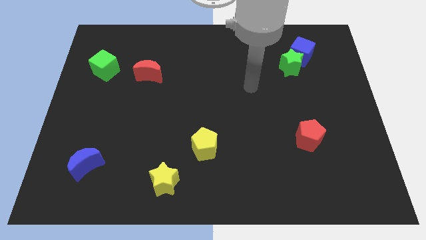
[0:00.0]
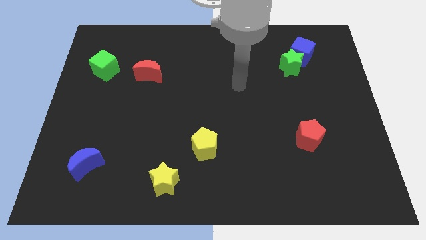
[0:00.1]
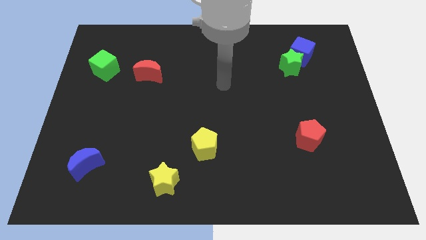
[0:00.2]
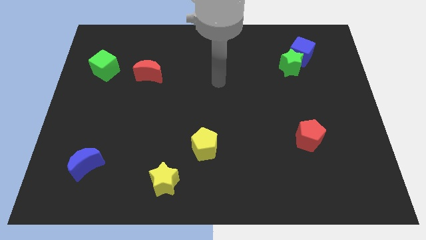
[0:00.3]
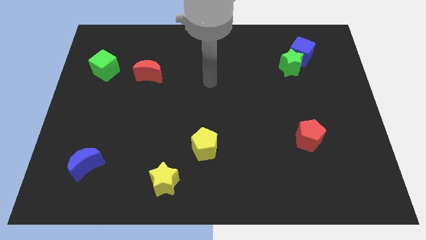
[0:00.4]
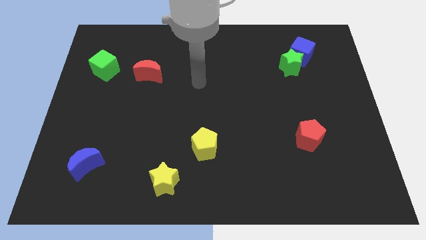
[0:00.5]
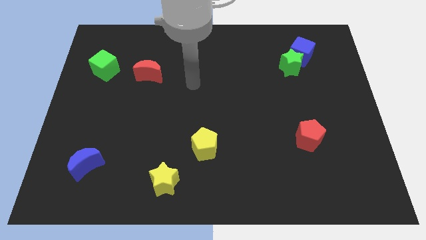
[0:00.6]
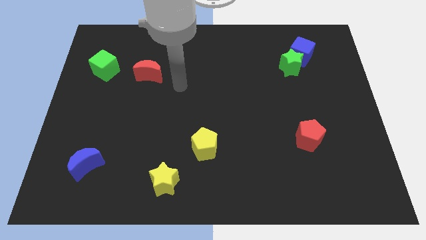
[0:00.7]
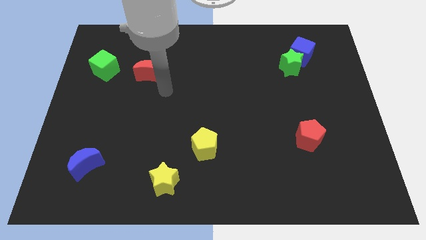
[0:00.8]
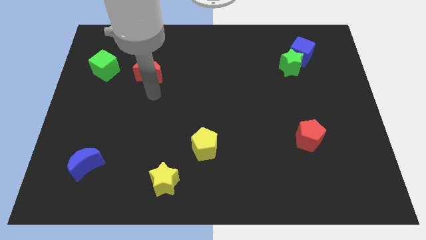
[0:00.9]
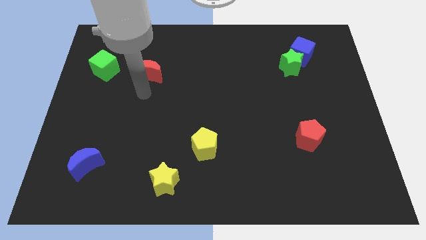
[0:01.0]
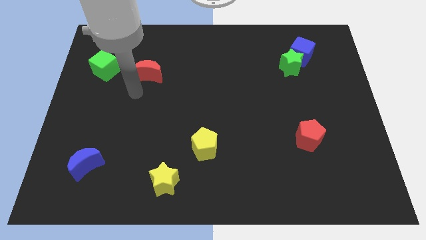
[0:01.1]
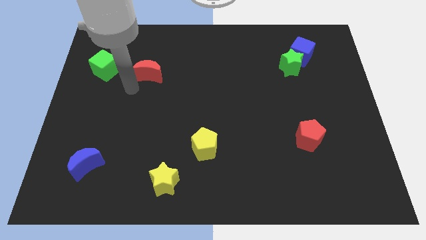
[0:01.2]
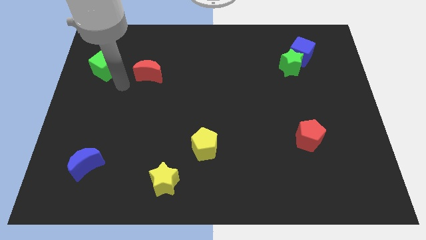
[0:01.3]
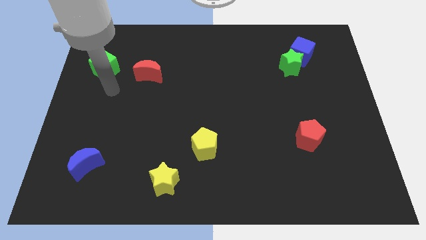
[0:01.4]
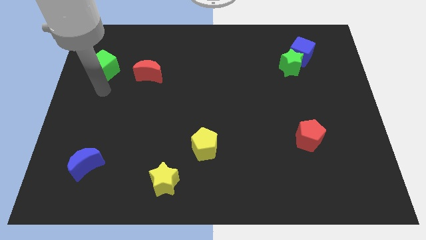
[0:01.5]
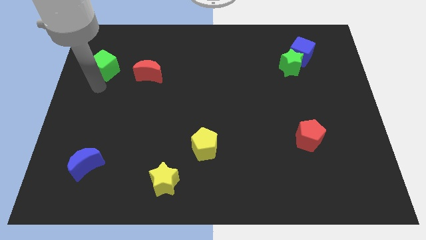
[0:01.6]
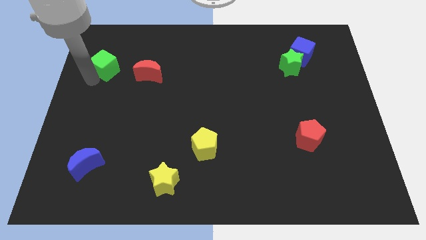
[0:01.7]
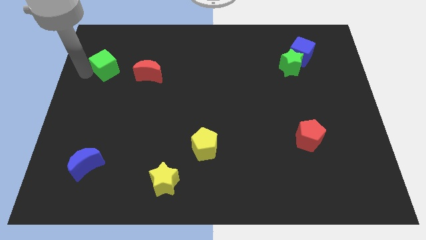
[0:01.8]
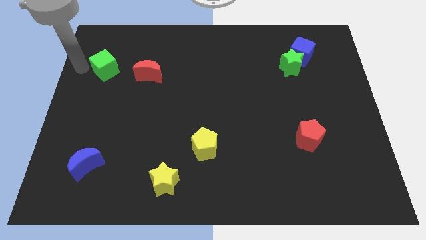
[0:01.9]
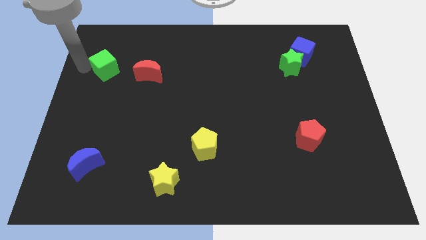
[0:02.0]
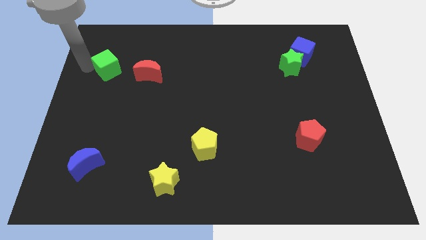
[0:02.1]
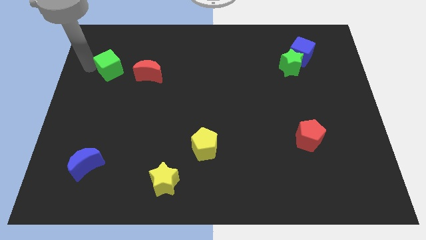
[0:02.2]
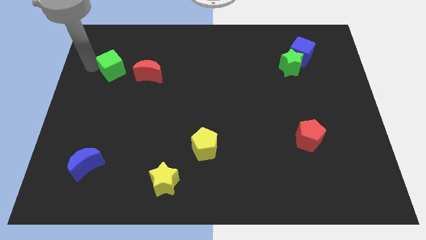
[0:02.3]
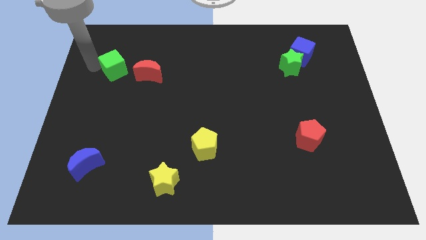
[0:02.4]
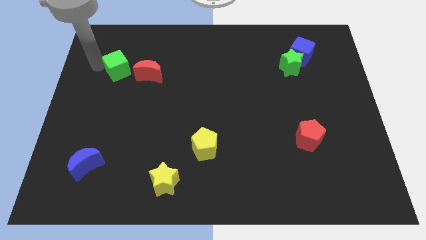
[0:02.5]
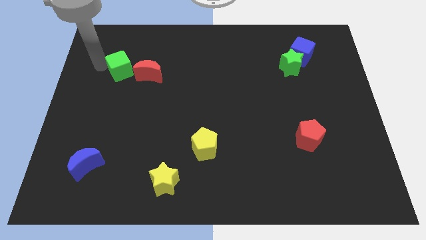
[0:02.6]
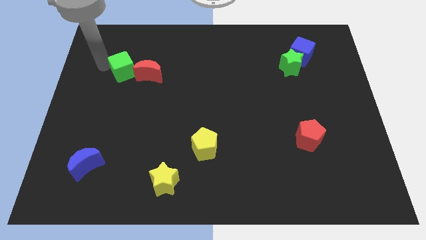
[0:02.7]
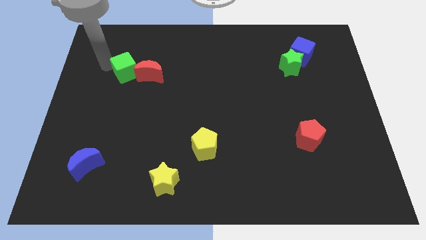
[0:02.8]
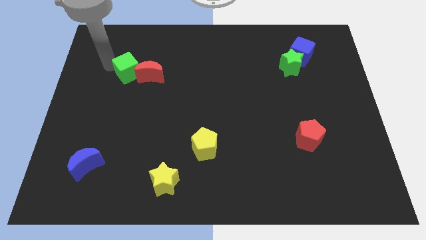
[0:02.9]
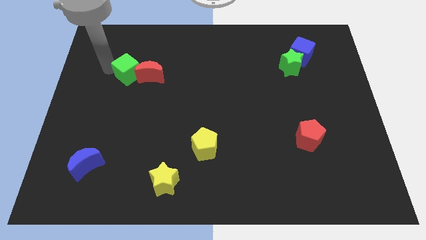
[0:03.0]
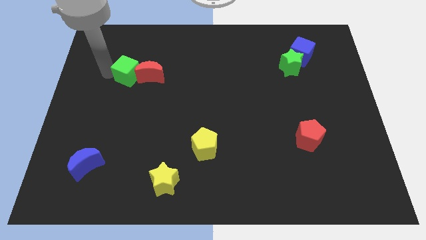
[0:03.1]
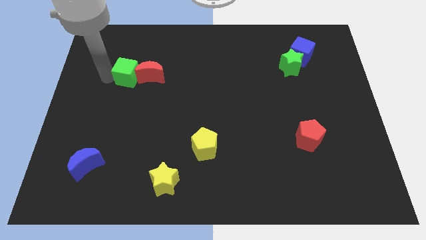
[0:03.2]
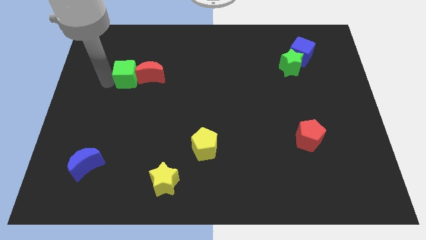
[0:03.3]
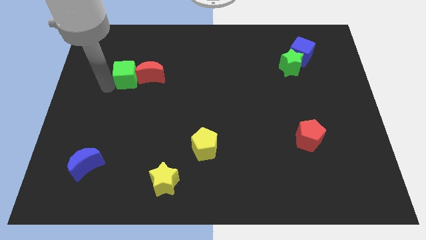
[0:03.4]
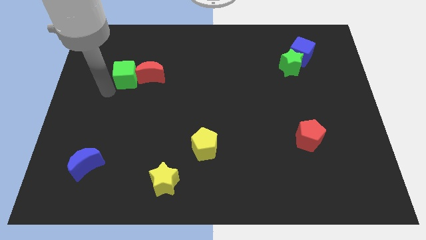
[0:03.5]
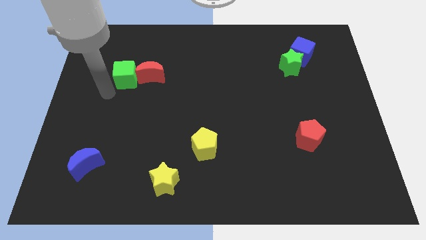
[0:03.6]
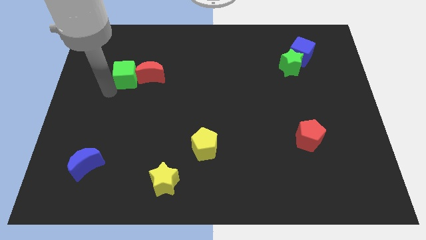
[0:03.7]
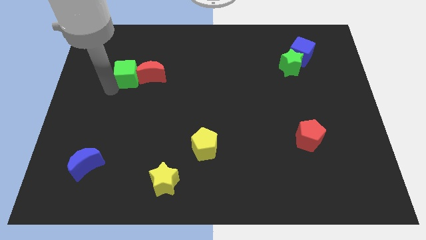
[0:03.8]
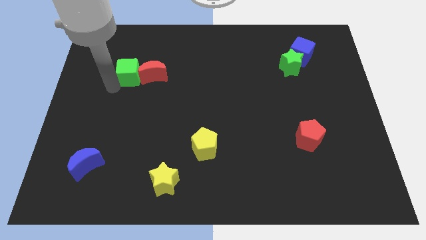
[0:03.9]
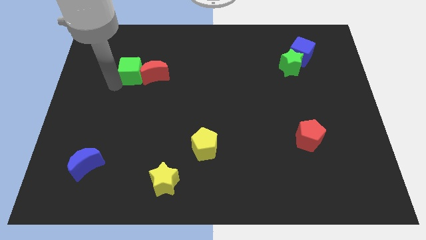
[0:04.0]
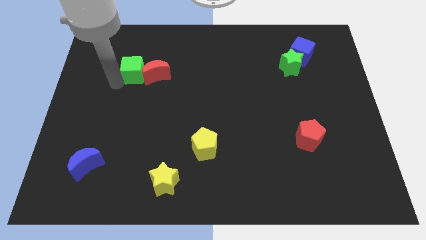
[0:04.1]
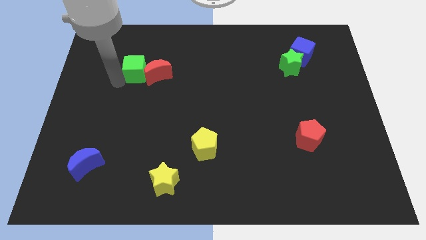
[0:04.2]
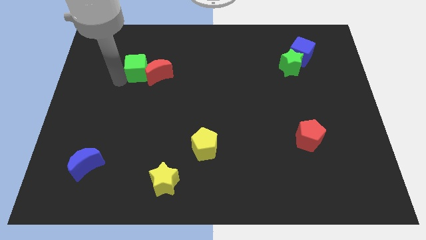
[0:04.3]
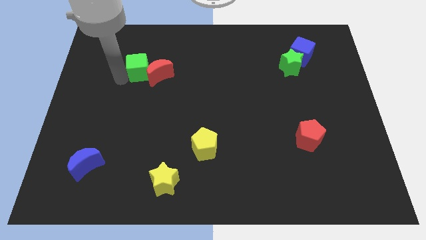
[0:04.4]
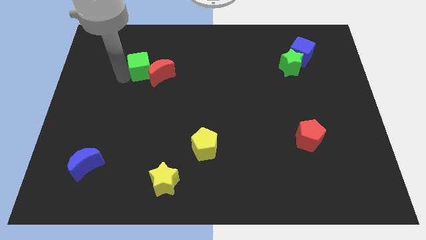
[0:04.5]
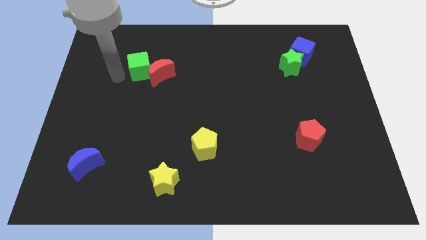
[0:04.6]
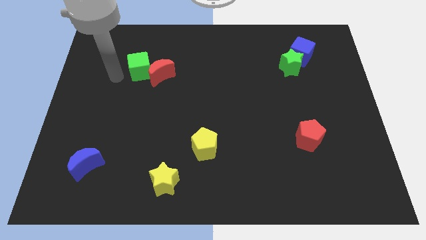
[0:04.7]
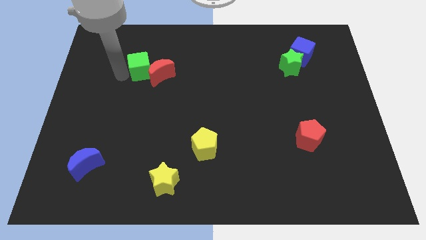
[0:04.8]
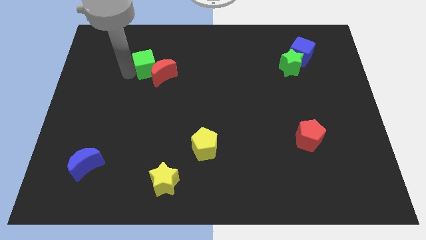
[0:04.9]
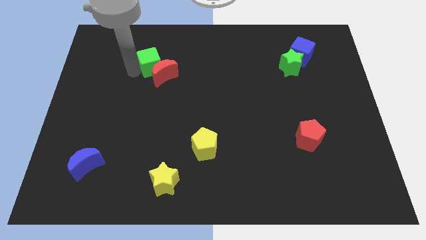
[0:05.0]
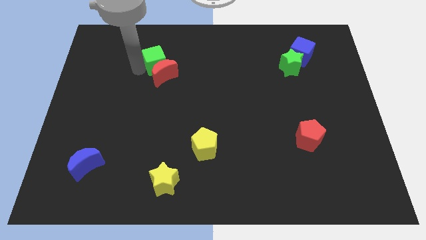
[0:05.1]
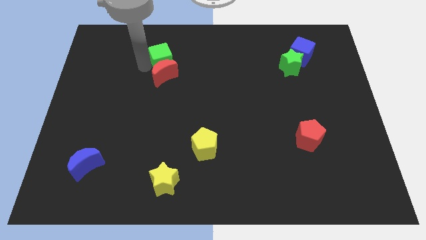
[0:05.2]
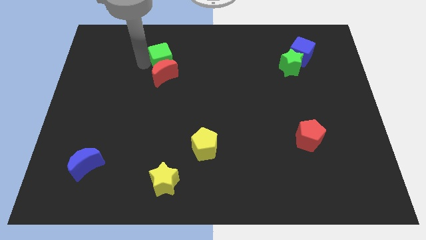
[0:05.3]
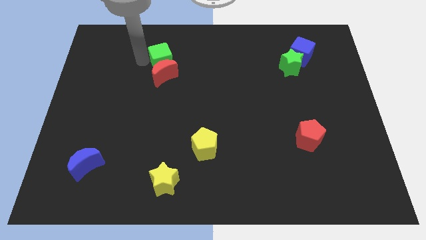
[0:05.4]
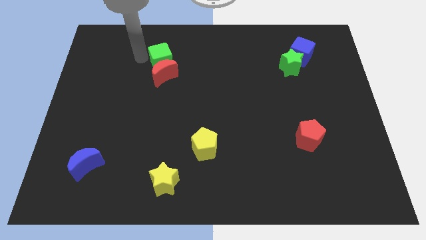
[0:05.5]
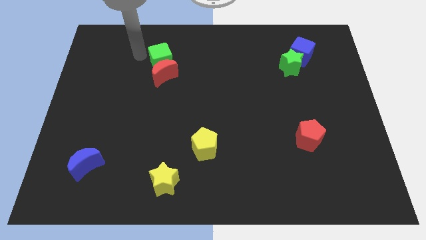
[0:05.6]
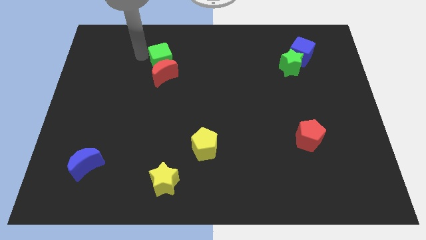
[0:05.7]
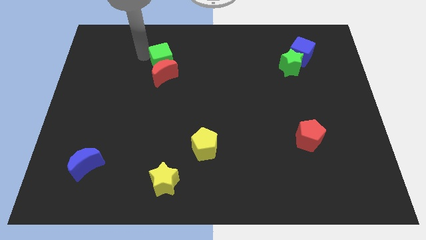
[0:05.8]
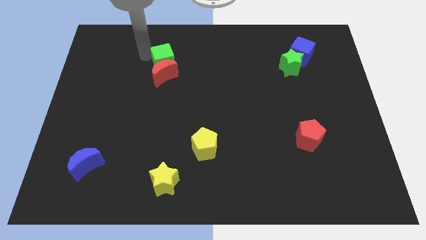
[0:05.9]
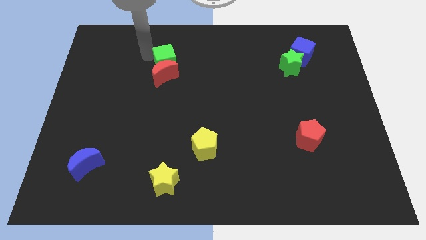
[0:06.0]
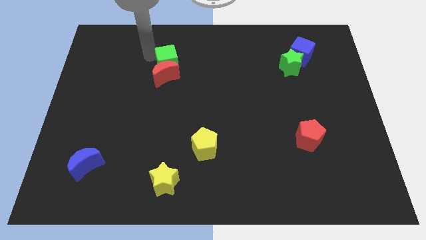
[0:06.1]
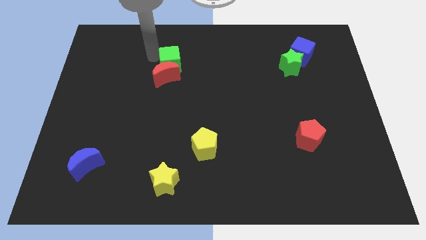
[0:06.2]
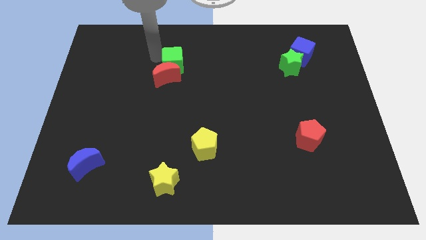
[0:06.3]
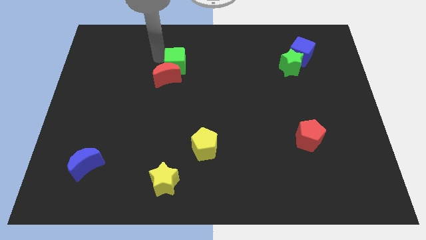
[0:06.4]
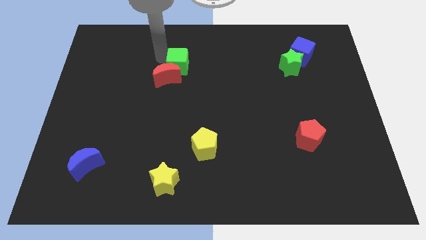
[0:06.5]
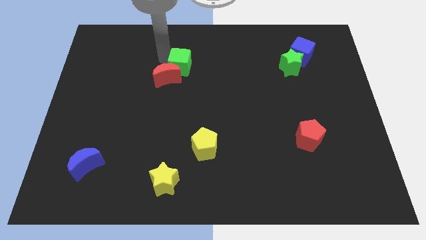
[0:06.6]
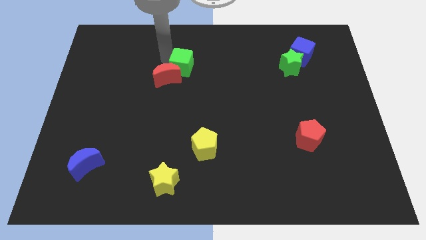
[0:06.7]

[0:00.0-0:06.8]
move the green cube to the right

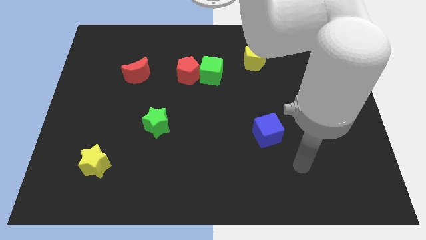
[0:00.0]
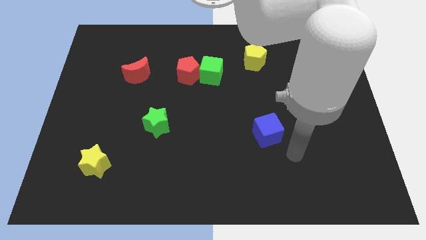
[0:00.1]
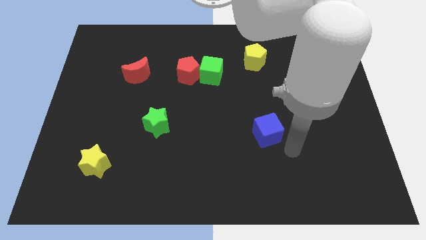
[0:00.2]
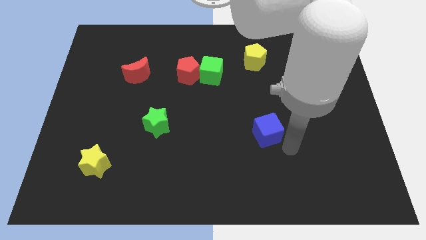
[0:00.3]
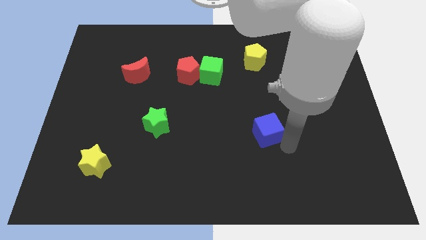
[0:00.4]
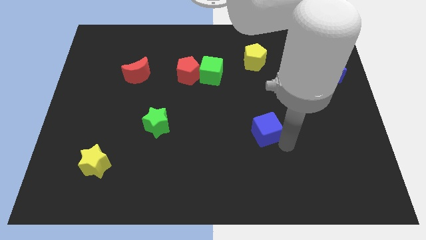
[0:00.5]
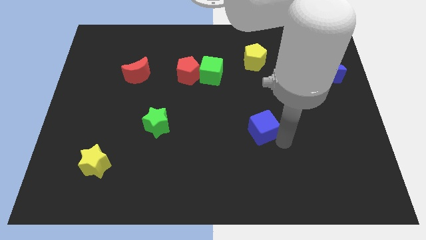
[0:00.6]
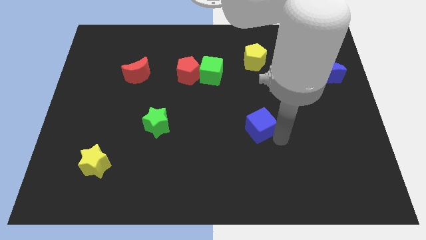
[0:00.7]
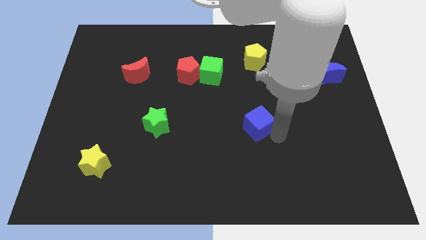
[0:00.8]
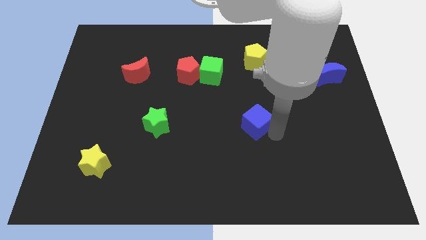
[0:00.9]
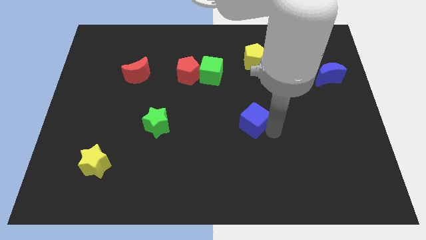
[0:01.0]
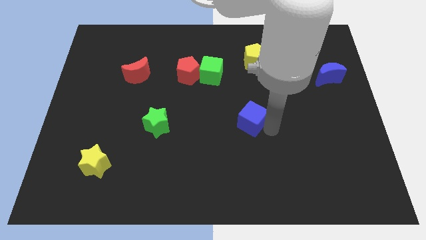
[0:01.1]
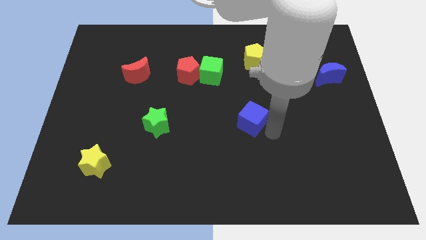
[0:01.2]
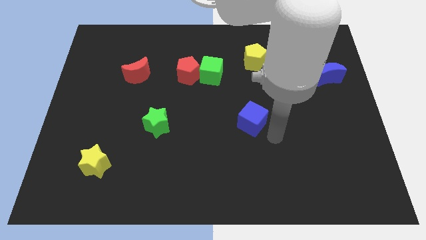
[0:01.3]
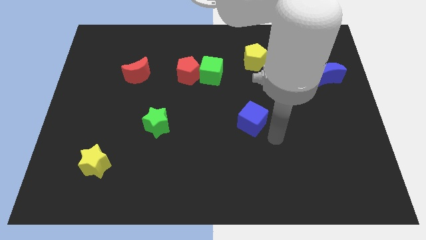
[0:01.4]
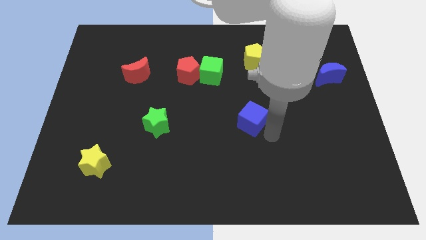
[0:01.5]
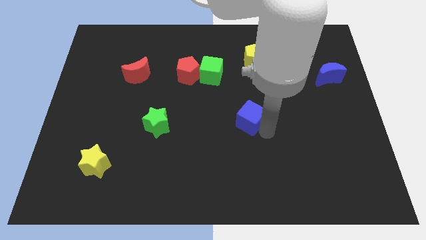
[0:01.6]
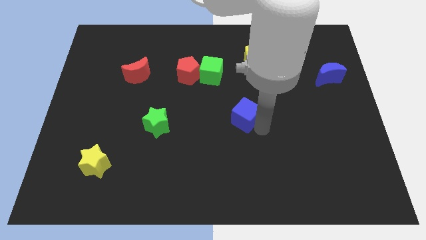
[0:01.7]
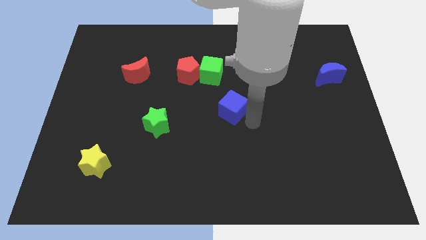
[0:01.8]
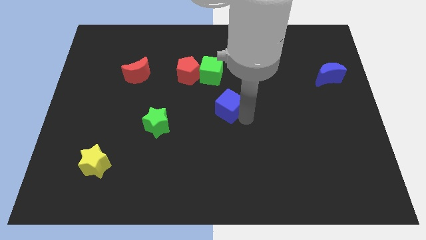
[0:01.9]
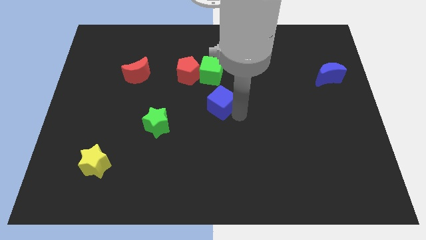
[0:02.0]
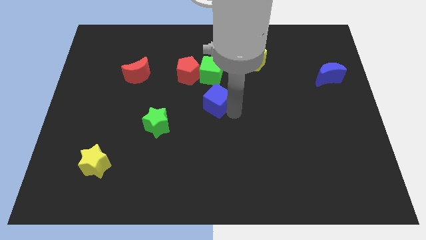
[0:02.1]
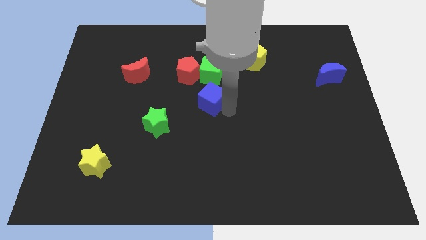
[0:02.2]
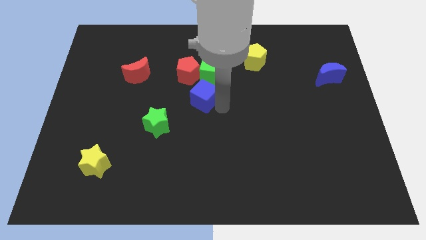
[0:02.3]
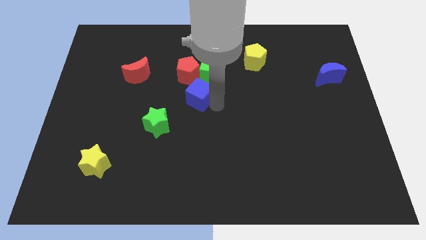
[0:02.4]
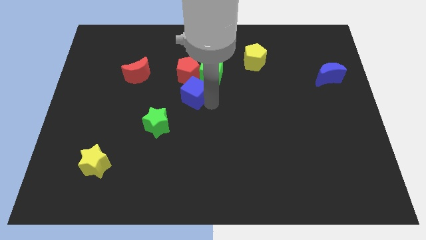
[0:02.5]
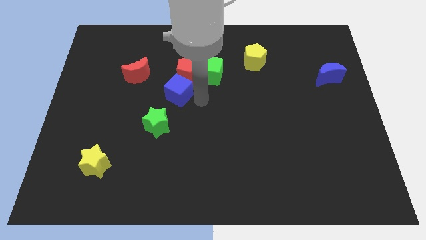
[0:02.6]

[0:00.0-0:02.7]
push the blue cube upwards and then left
